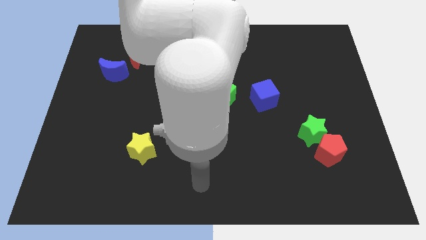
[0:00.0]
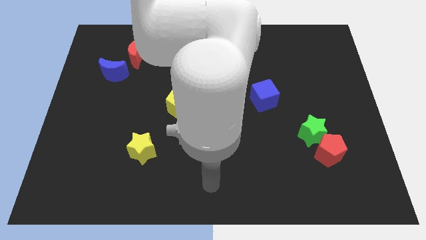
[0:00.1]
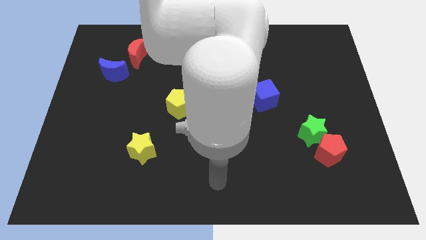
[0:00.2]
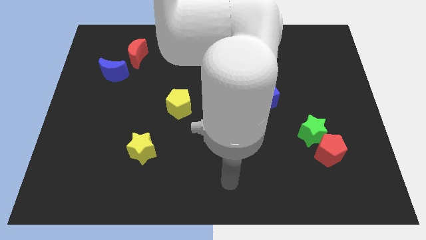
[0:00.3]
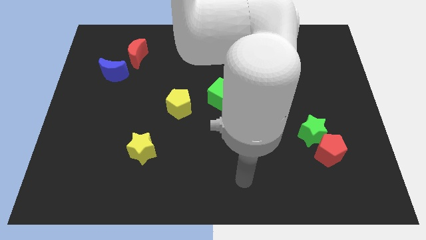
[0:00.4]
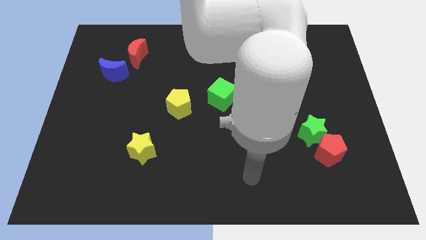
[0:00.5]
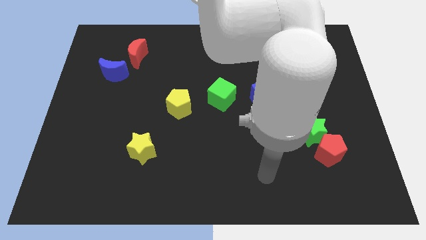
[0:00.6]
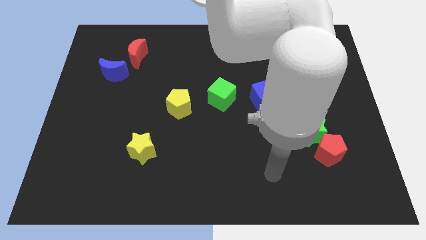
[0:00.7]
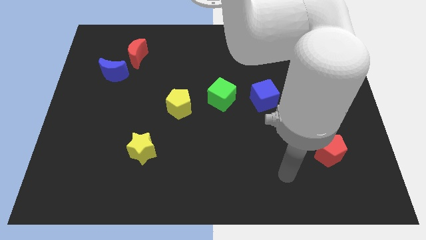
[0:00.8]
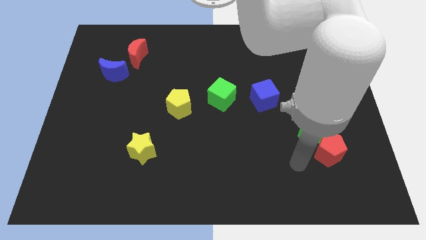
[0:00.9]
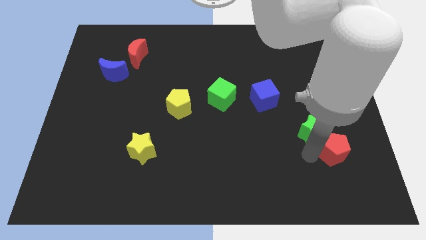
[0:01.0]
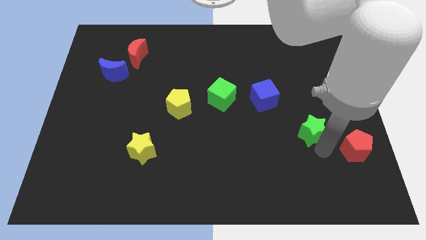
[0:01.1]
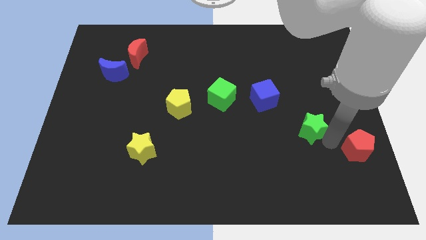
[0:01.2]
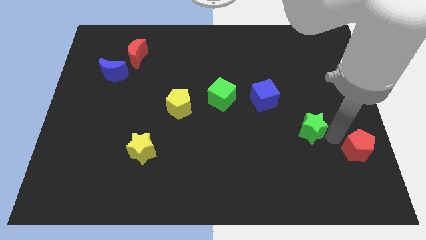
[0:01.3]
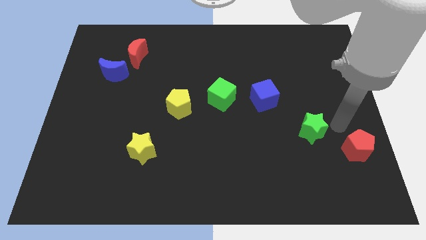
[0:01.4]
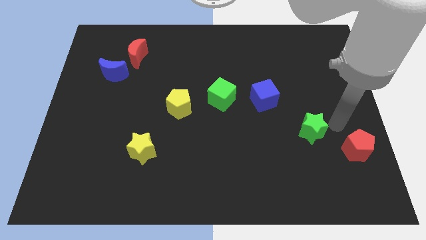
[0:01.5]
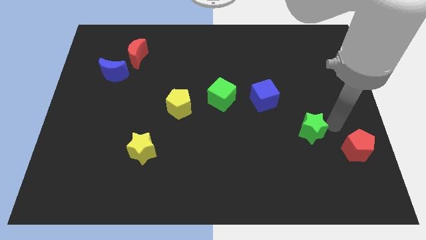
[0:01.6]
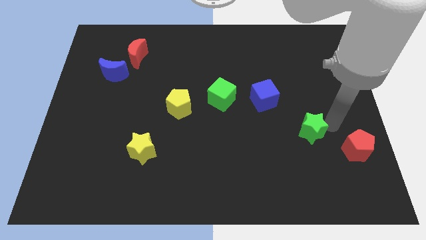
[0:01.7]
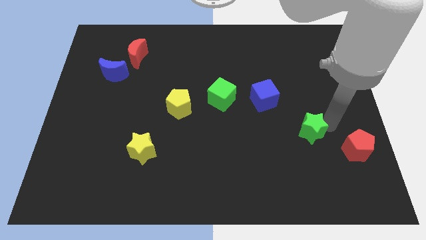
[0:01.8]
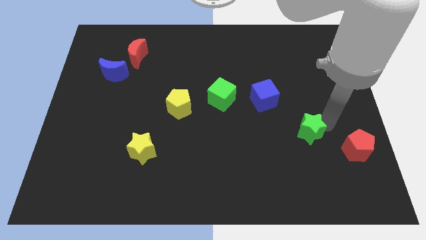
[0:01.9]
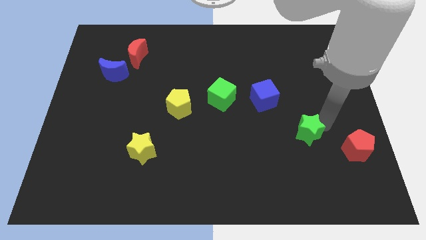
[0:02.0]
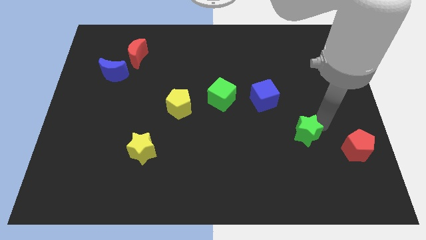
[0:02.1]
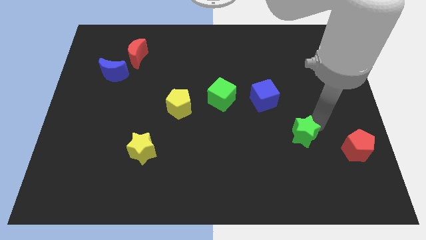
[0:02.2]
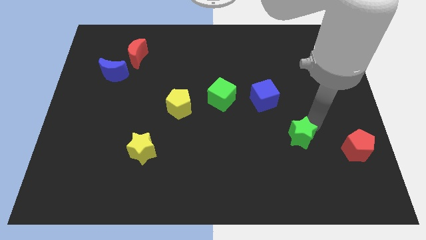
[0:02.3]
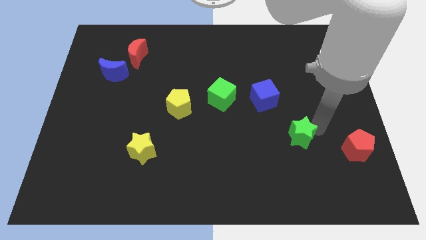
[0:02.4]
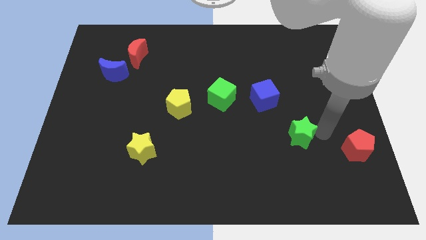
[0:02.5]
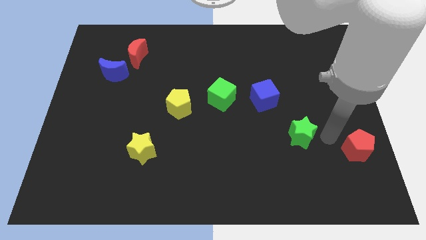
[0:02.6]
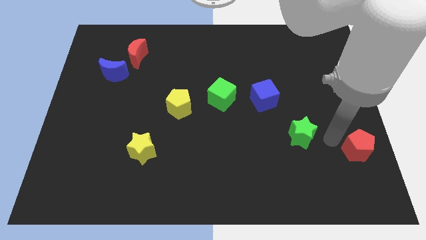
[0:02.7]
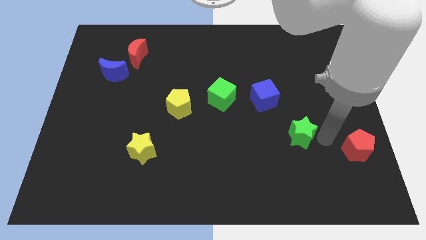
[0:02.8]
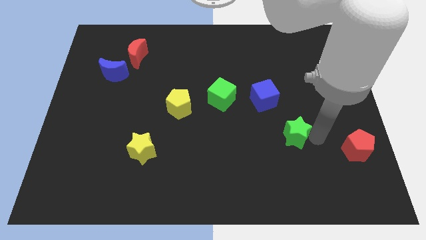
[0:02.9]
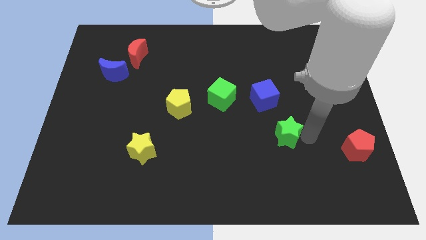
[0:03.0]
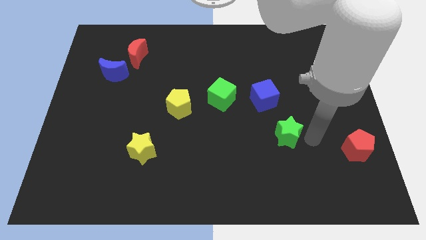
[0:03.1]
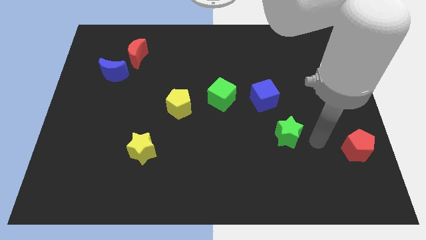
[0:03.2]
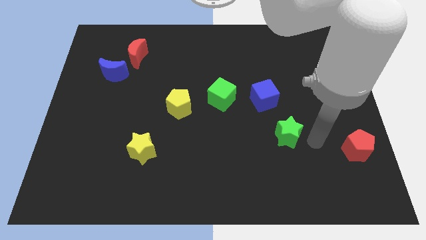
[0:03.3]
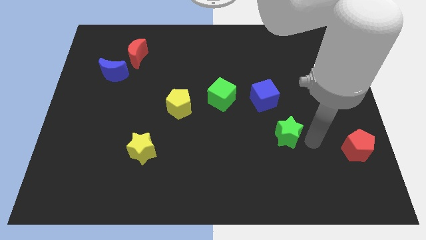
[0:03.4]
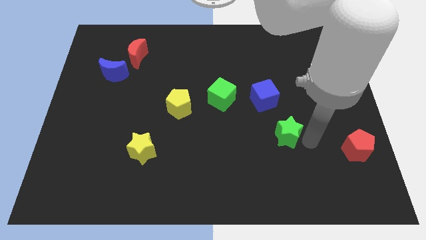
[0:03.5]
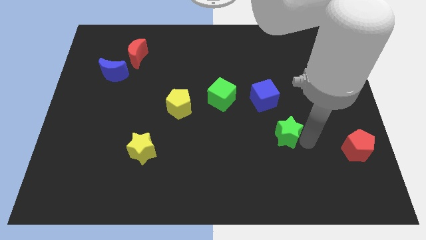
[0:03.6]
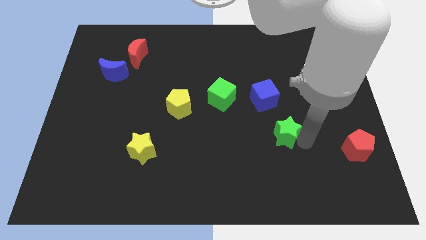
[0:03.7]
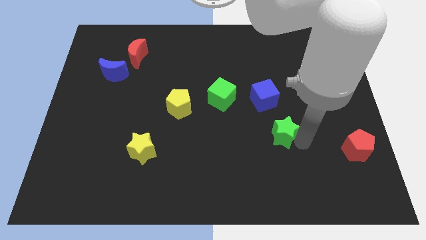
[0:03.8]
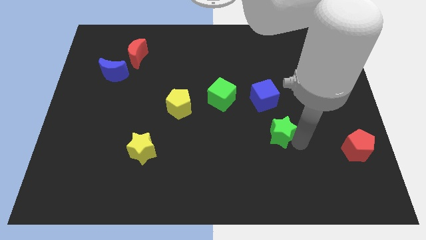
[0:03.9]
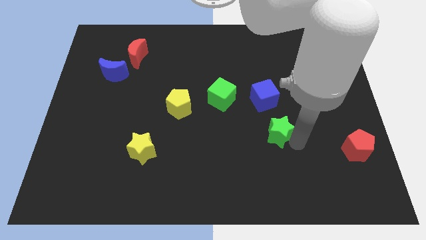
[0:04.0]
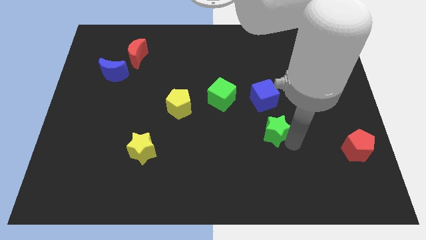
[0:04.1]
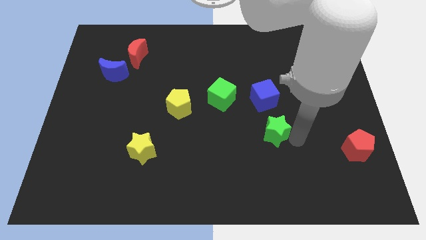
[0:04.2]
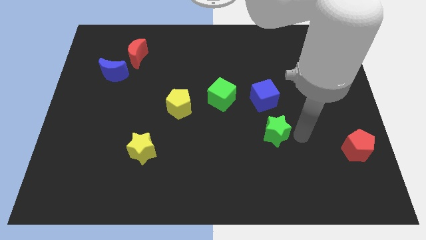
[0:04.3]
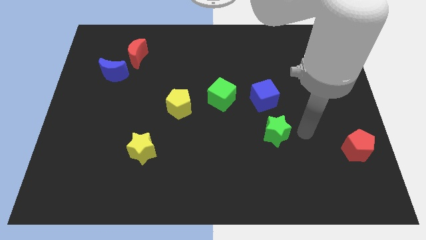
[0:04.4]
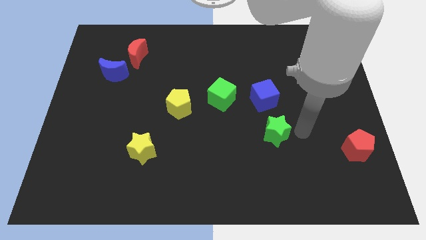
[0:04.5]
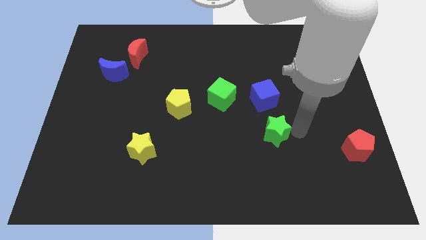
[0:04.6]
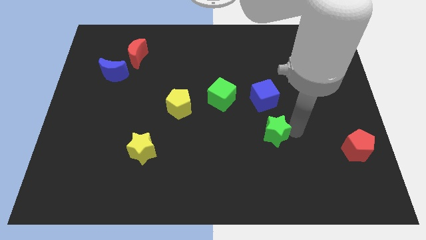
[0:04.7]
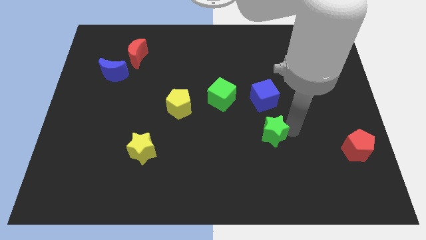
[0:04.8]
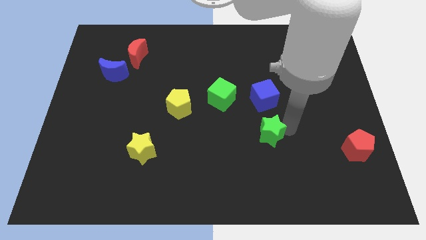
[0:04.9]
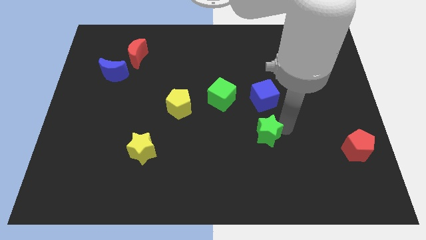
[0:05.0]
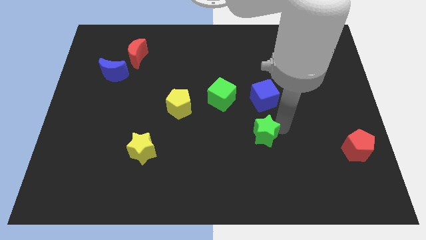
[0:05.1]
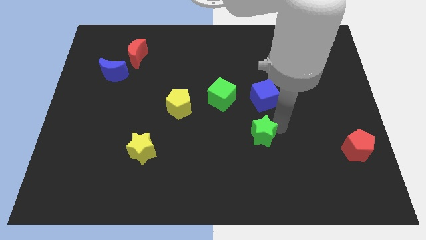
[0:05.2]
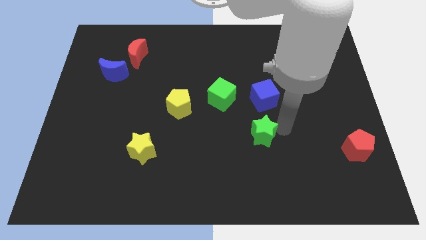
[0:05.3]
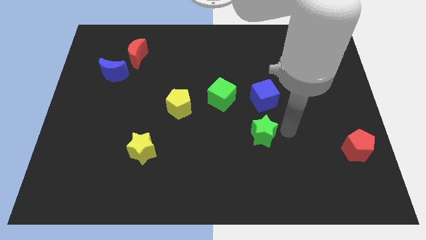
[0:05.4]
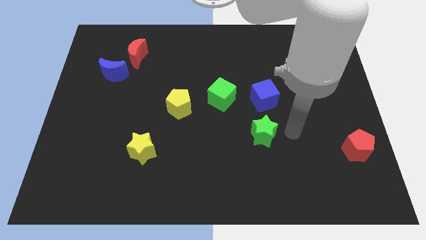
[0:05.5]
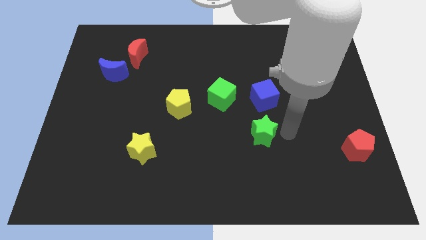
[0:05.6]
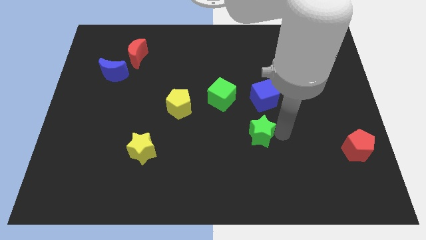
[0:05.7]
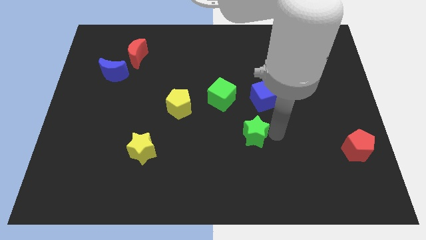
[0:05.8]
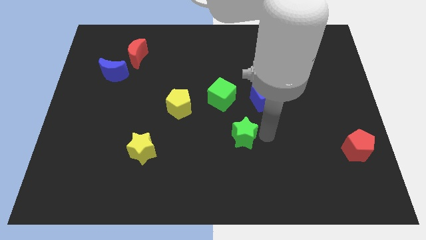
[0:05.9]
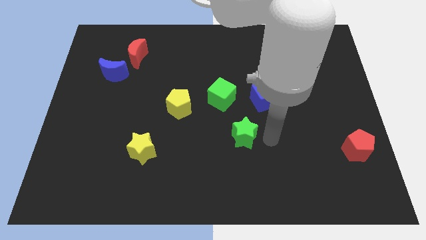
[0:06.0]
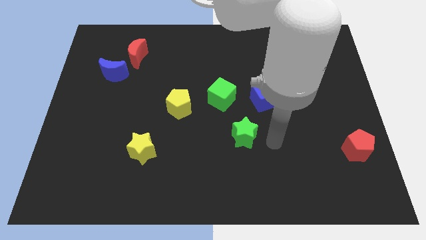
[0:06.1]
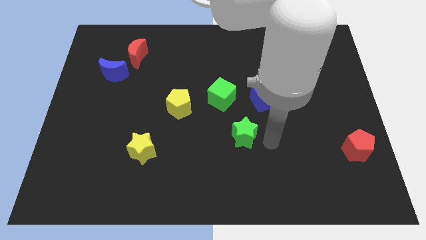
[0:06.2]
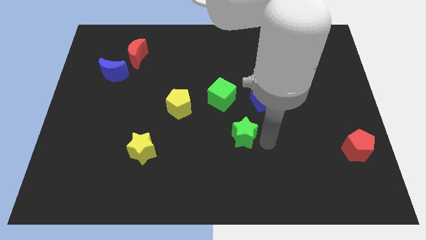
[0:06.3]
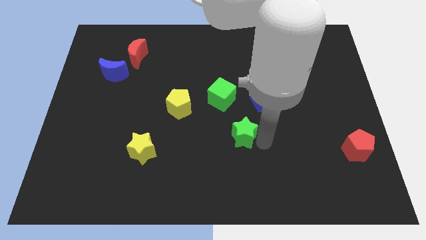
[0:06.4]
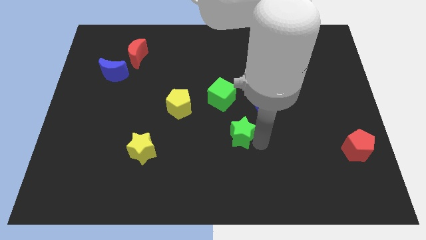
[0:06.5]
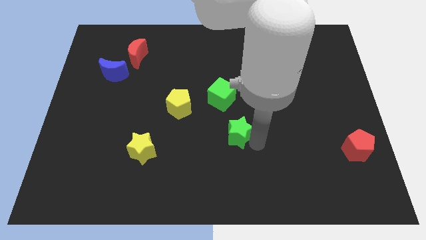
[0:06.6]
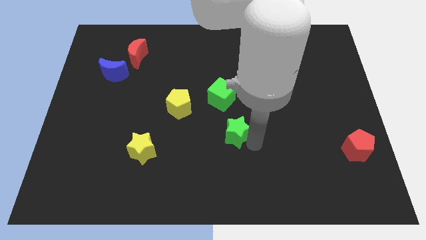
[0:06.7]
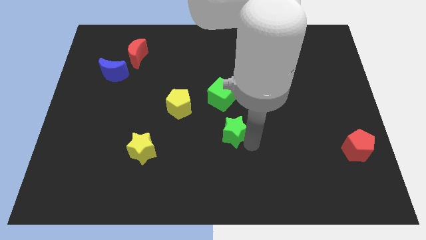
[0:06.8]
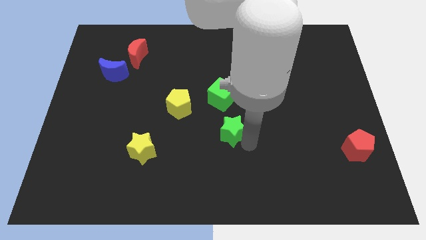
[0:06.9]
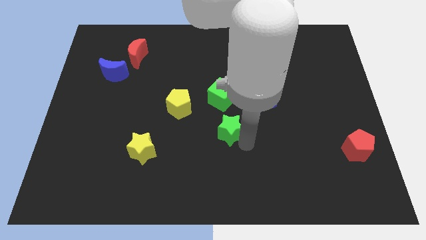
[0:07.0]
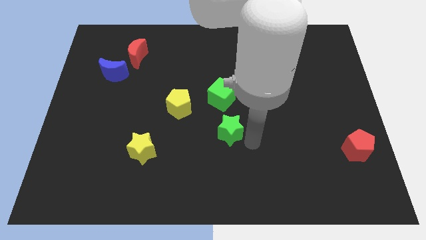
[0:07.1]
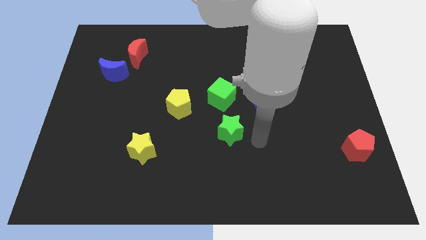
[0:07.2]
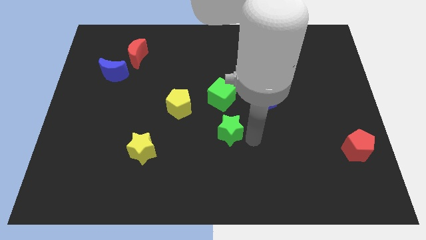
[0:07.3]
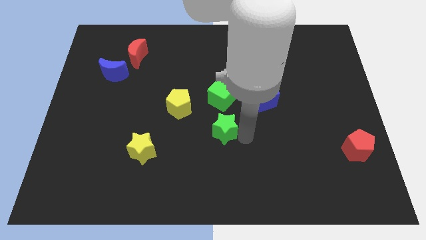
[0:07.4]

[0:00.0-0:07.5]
move the green star to the bottom right side of the yellow pentagon
